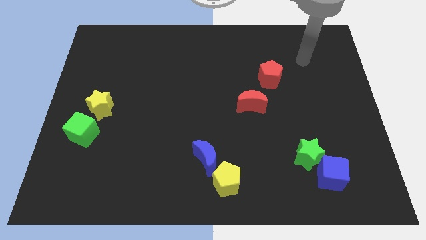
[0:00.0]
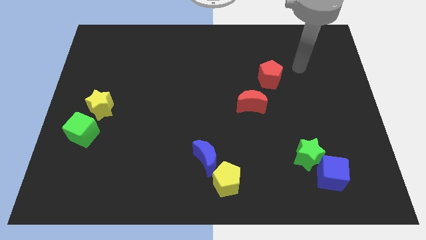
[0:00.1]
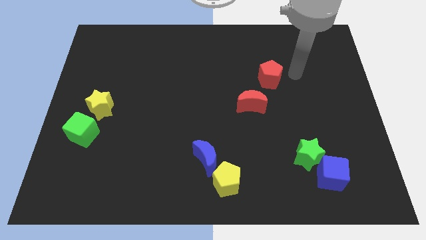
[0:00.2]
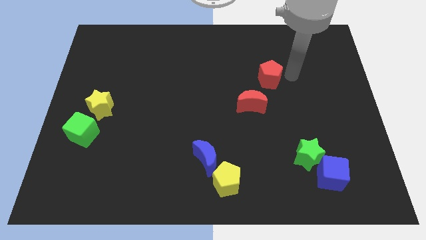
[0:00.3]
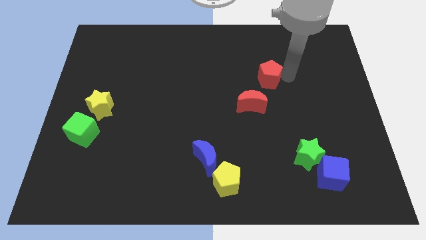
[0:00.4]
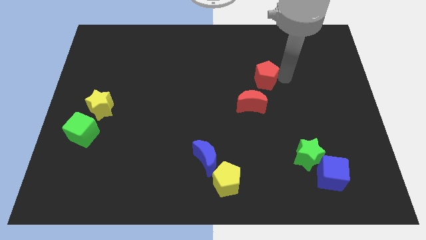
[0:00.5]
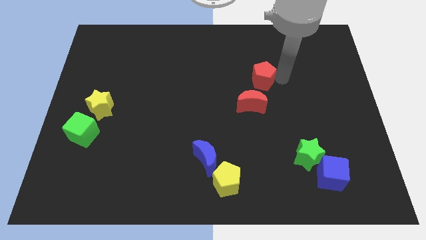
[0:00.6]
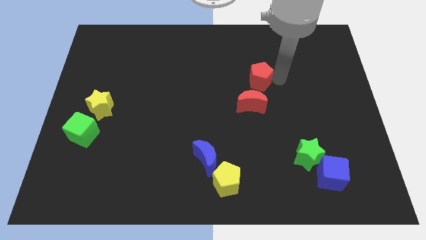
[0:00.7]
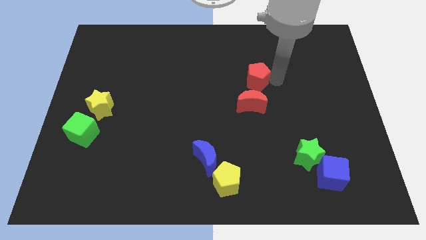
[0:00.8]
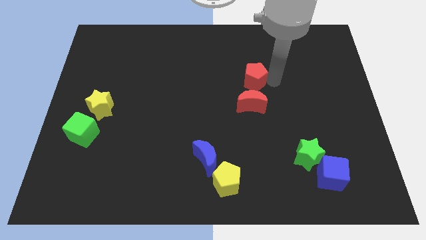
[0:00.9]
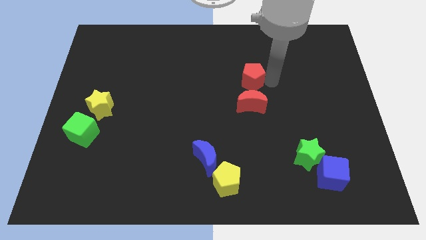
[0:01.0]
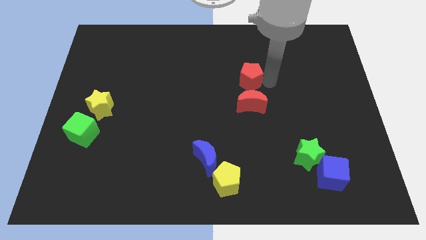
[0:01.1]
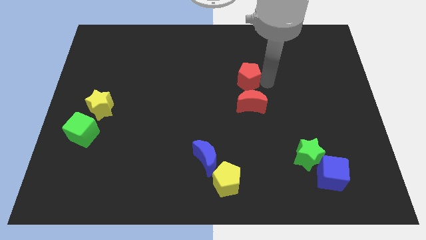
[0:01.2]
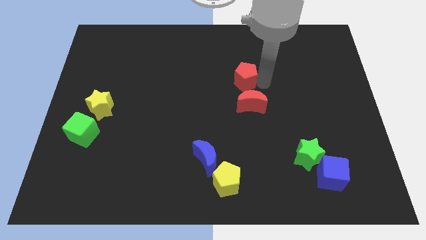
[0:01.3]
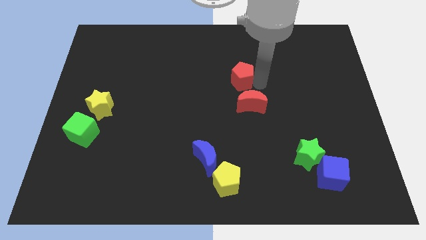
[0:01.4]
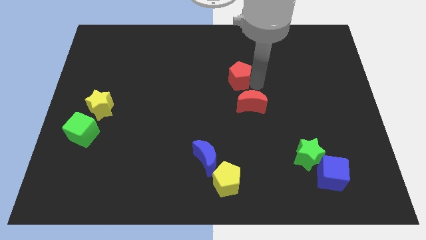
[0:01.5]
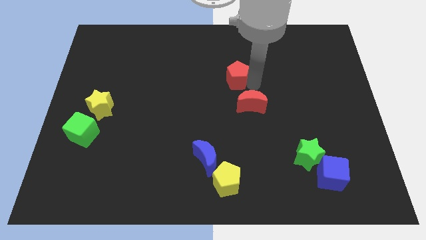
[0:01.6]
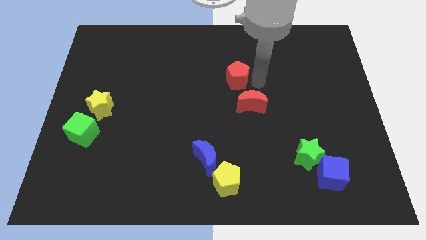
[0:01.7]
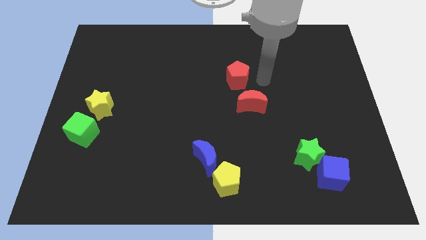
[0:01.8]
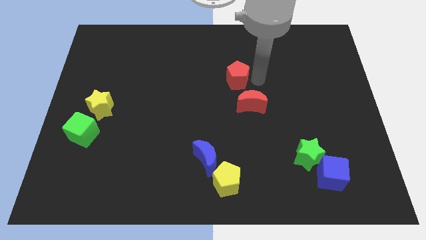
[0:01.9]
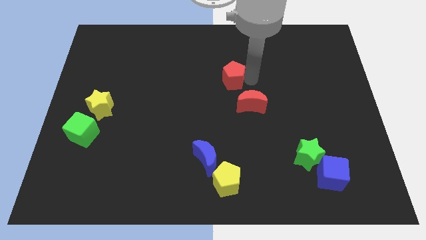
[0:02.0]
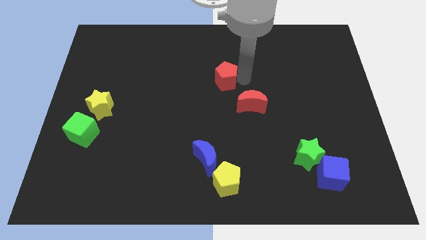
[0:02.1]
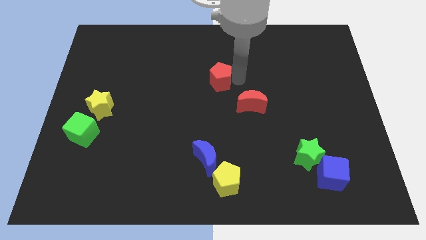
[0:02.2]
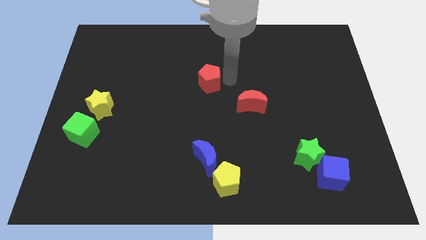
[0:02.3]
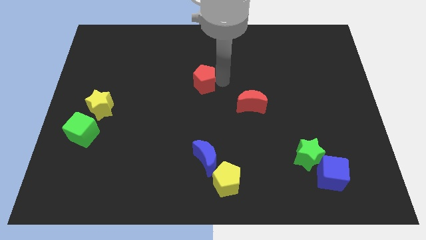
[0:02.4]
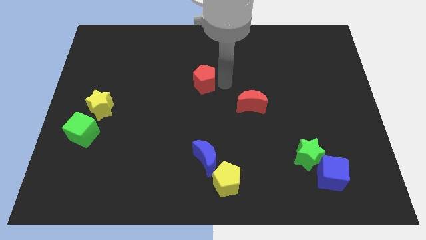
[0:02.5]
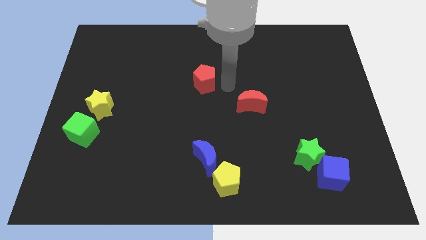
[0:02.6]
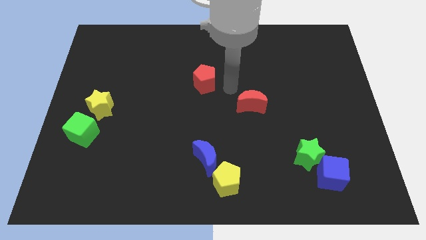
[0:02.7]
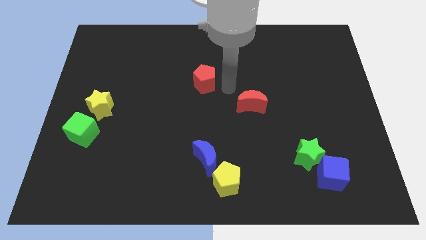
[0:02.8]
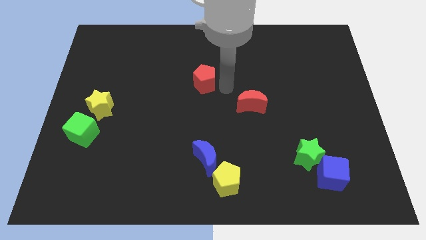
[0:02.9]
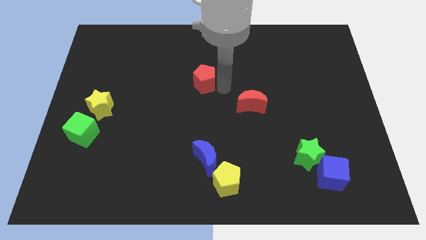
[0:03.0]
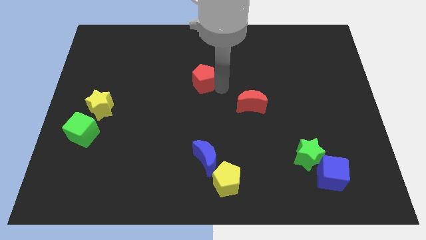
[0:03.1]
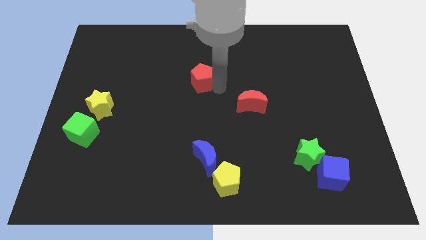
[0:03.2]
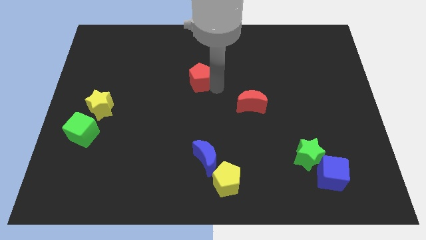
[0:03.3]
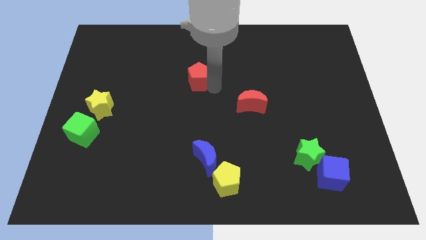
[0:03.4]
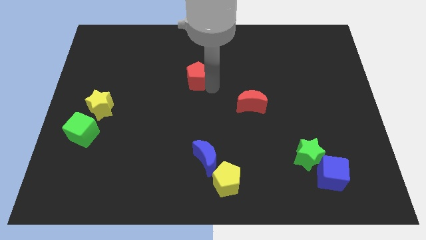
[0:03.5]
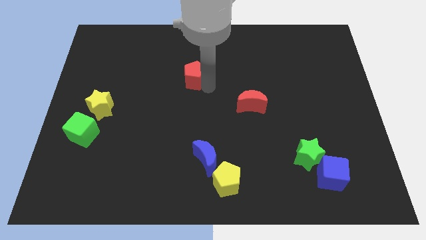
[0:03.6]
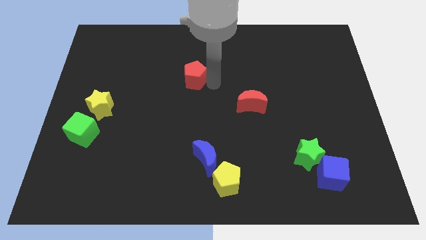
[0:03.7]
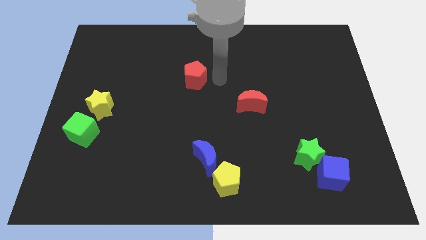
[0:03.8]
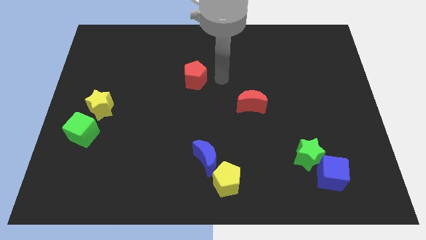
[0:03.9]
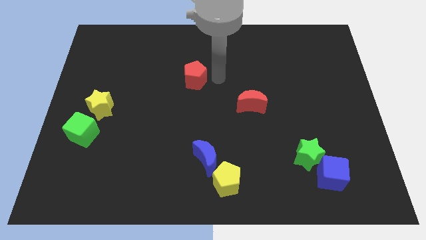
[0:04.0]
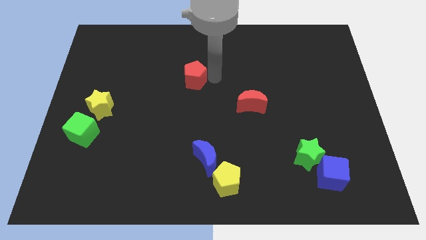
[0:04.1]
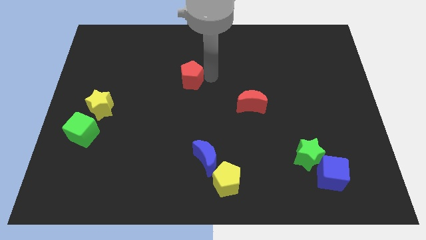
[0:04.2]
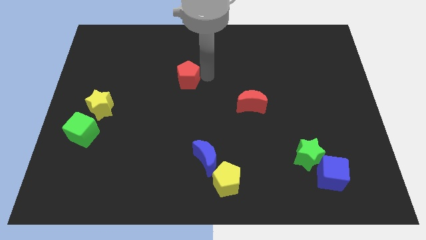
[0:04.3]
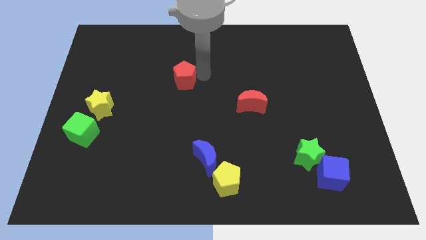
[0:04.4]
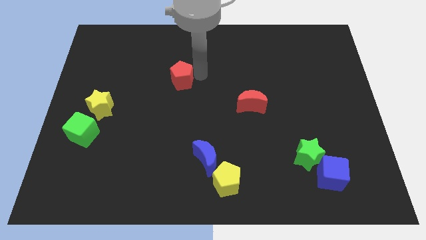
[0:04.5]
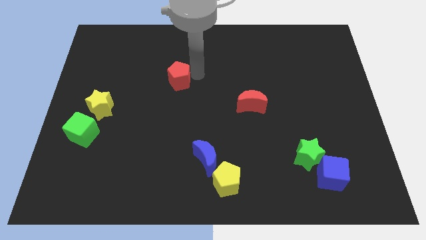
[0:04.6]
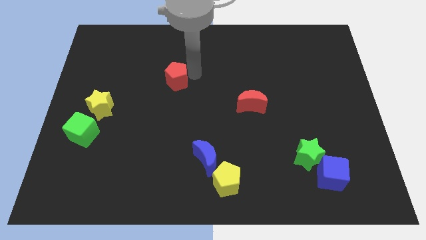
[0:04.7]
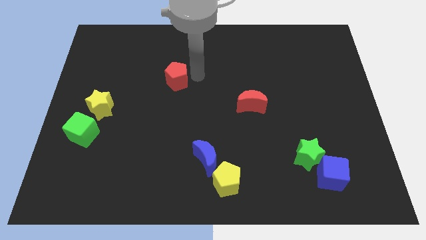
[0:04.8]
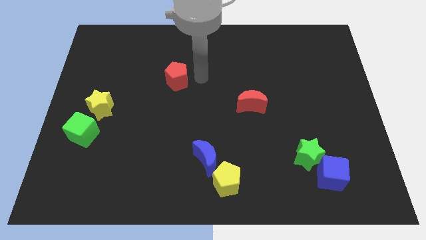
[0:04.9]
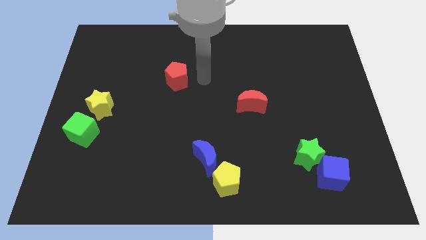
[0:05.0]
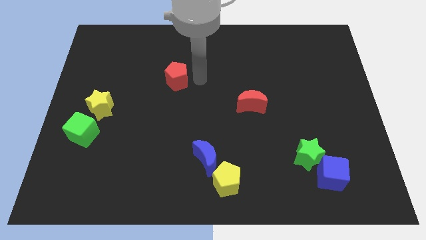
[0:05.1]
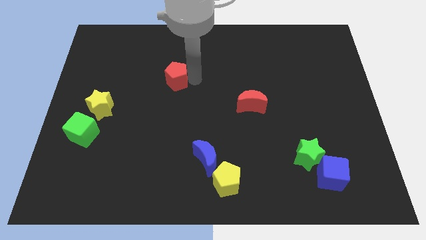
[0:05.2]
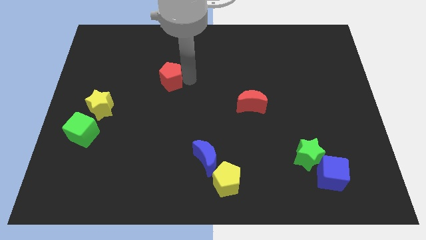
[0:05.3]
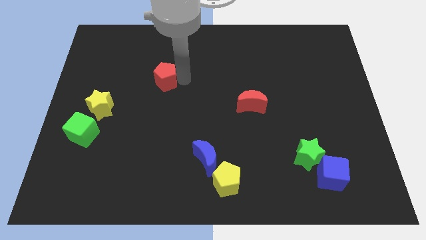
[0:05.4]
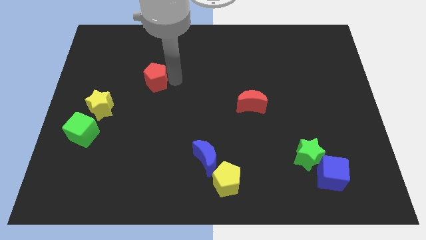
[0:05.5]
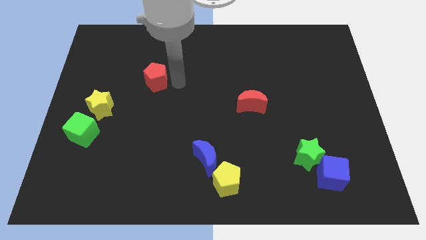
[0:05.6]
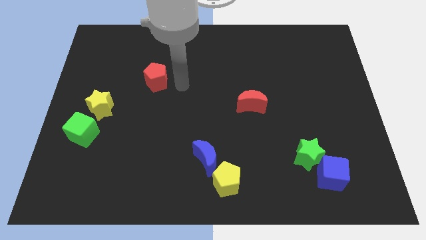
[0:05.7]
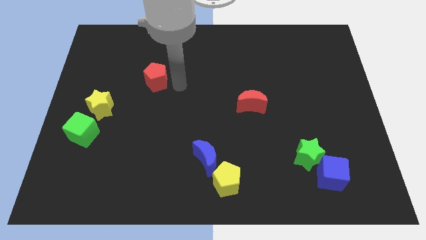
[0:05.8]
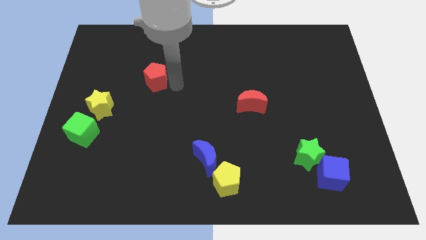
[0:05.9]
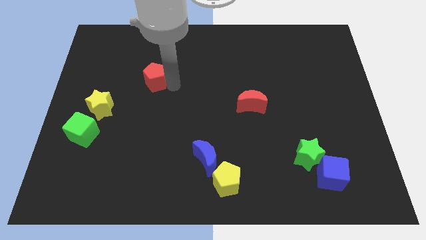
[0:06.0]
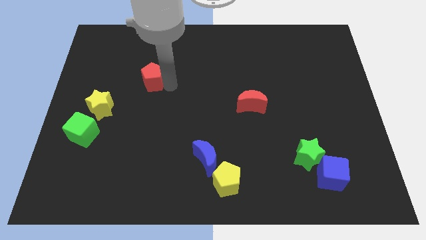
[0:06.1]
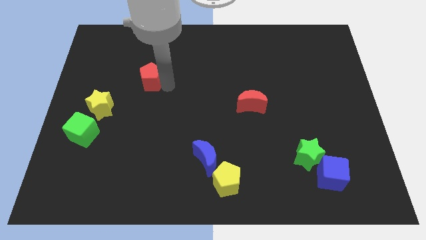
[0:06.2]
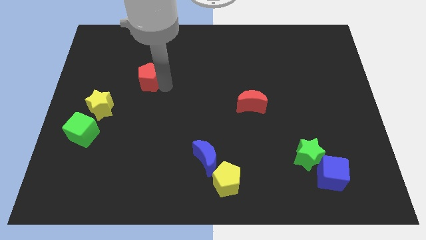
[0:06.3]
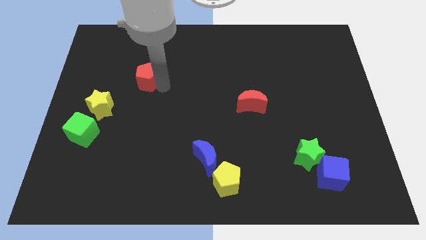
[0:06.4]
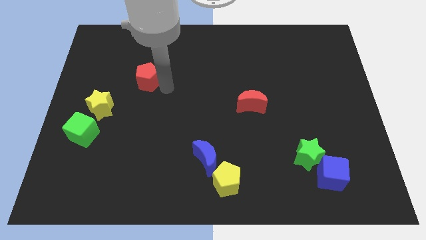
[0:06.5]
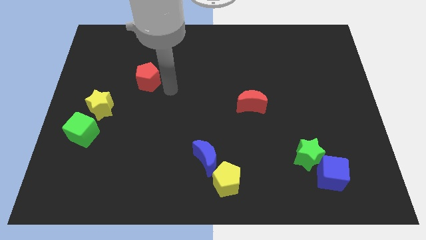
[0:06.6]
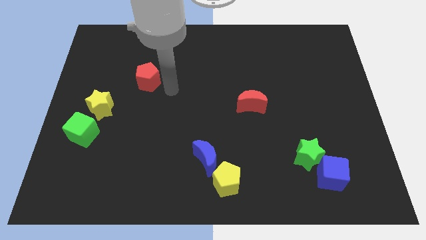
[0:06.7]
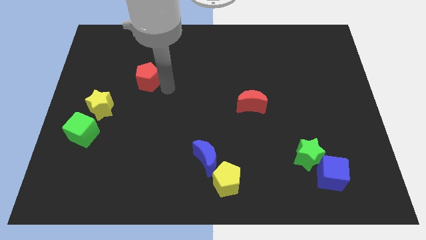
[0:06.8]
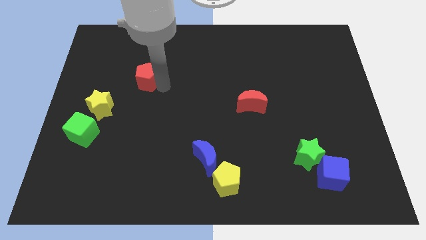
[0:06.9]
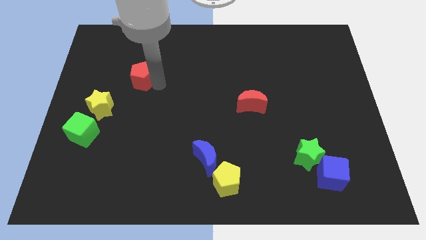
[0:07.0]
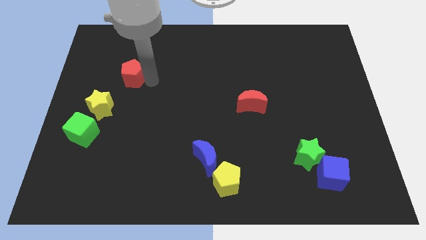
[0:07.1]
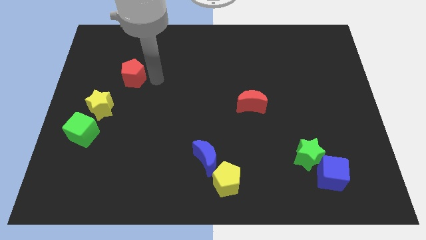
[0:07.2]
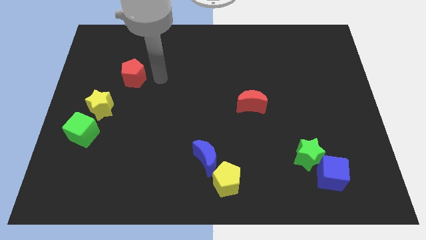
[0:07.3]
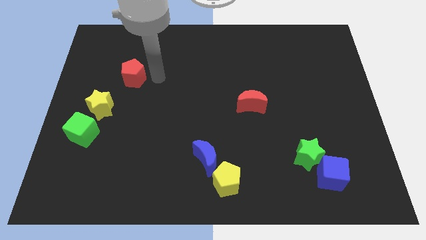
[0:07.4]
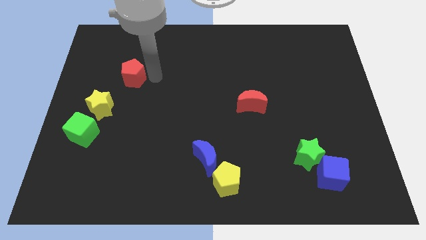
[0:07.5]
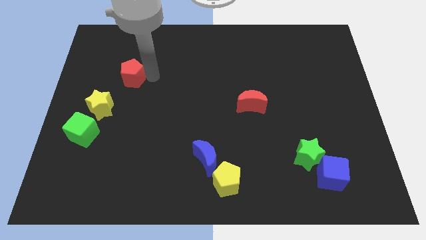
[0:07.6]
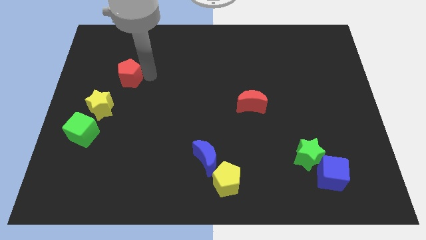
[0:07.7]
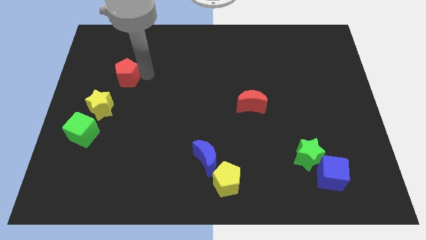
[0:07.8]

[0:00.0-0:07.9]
move the red pentagon to the top of the yellow star

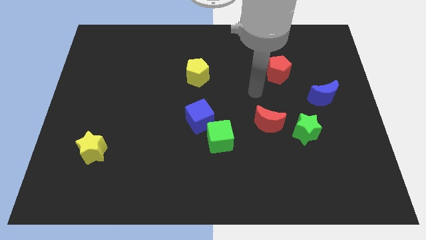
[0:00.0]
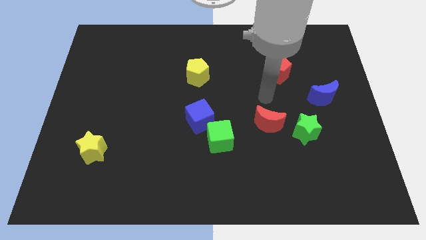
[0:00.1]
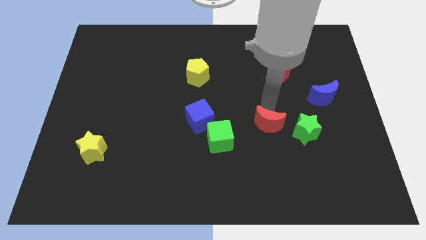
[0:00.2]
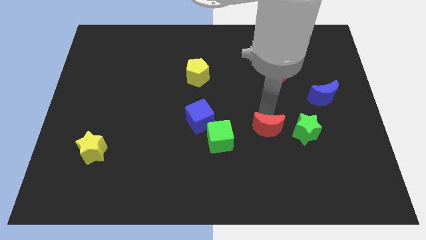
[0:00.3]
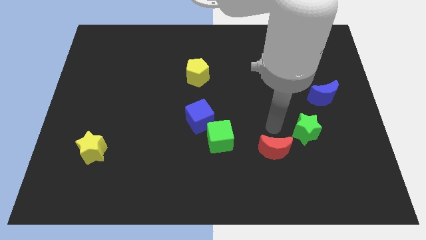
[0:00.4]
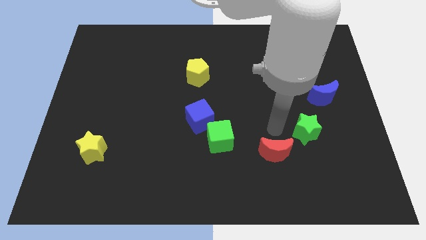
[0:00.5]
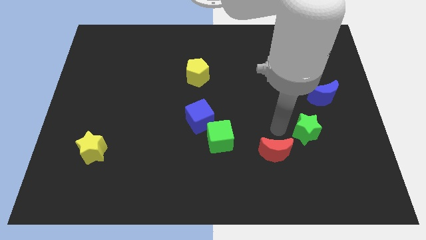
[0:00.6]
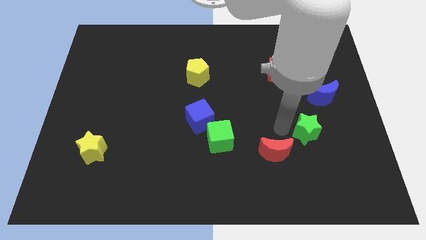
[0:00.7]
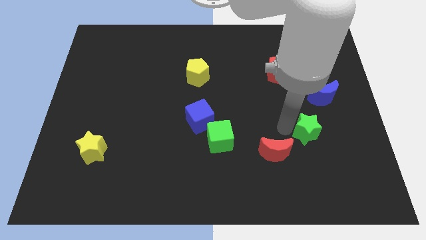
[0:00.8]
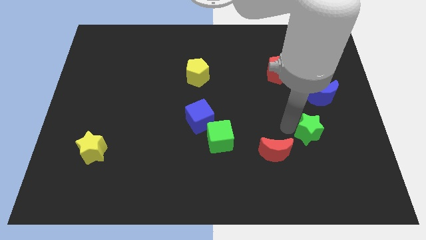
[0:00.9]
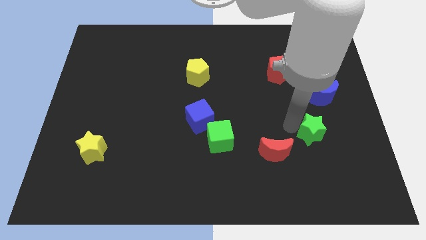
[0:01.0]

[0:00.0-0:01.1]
slide the green star to the bottom side of the blue moon
